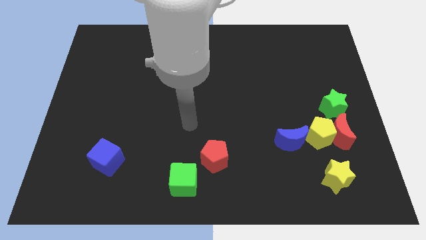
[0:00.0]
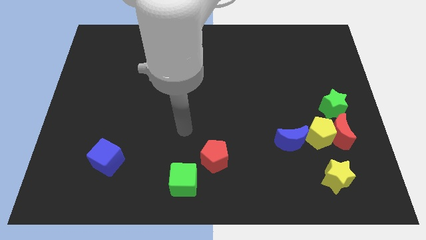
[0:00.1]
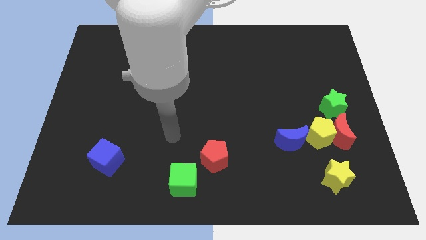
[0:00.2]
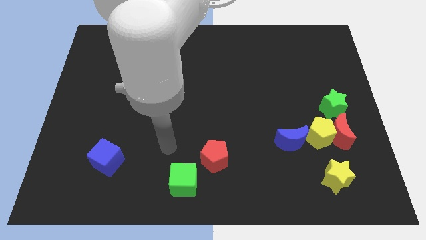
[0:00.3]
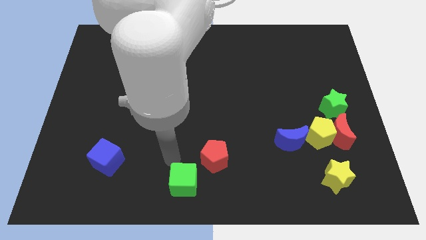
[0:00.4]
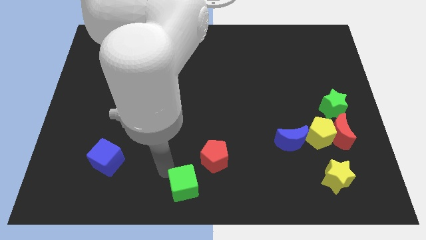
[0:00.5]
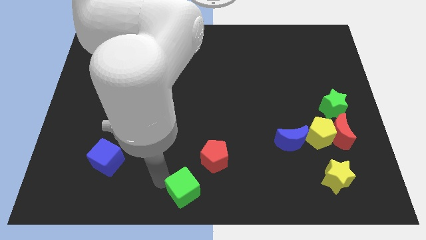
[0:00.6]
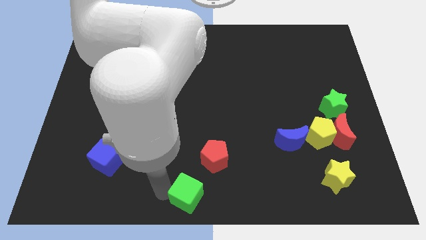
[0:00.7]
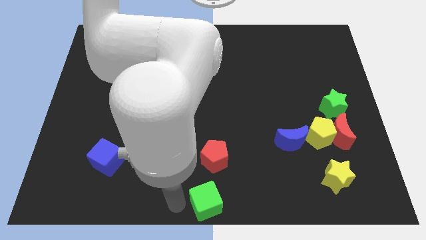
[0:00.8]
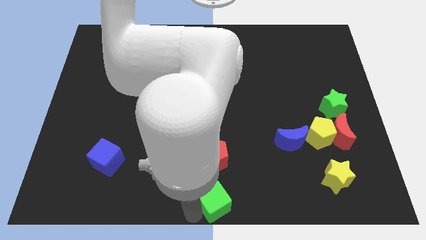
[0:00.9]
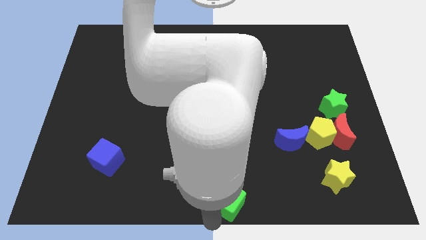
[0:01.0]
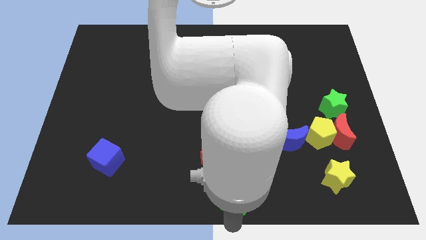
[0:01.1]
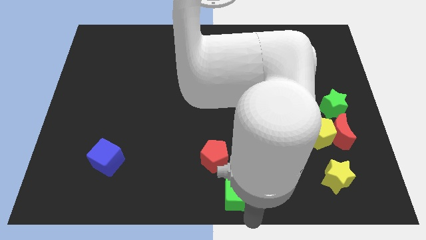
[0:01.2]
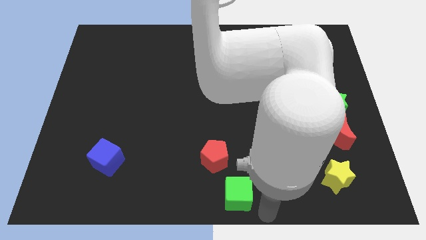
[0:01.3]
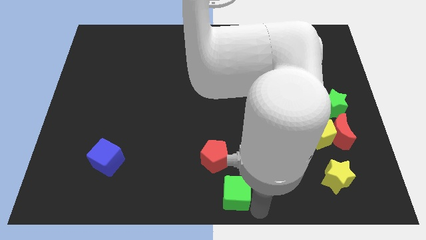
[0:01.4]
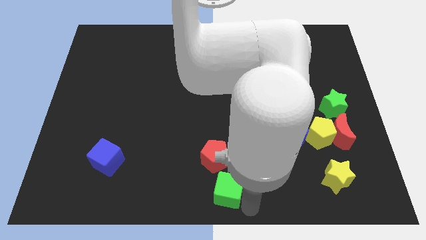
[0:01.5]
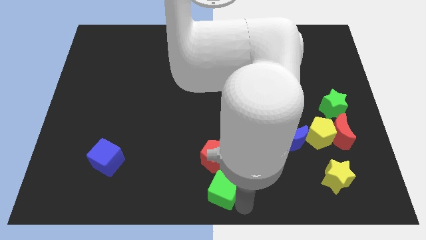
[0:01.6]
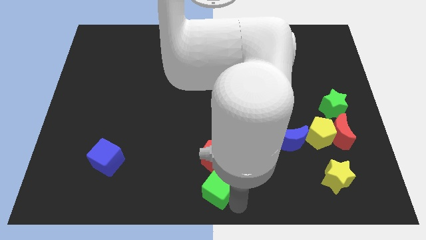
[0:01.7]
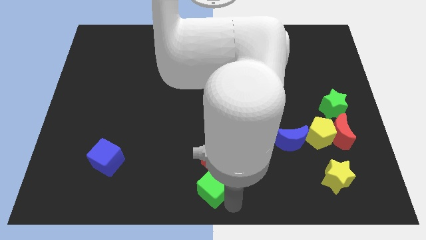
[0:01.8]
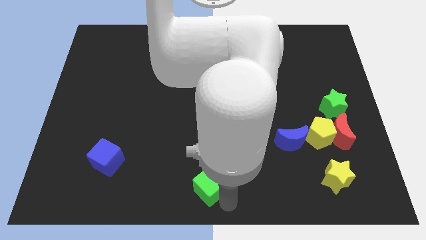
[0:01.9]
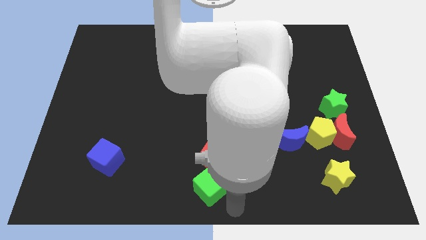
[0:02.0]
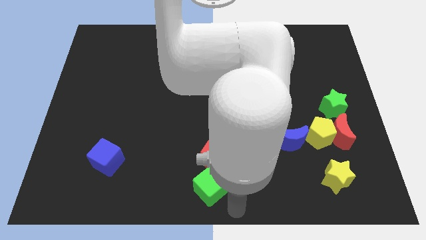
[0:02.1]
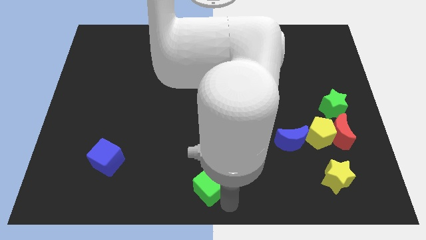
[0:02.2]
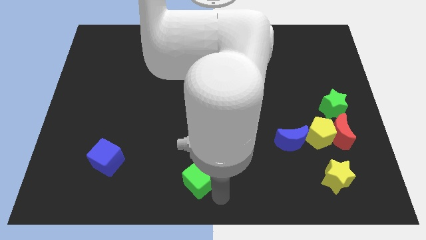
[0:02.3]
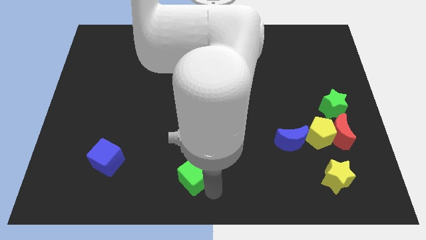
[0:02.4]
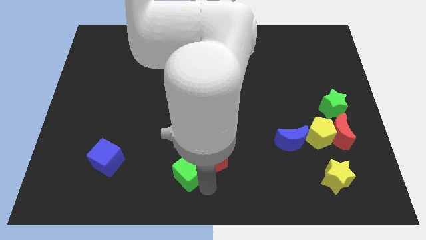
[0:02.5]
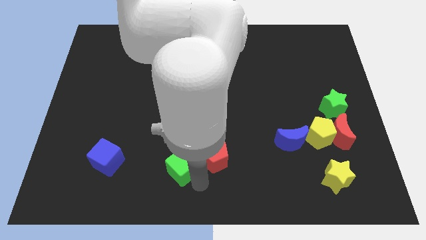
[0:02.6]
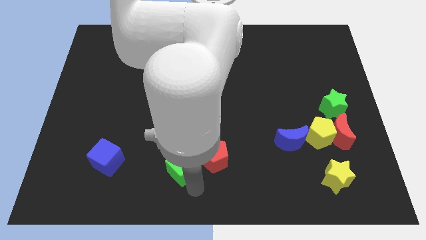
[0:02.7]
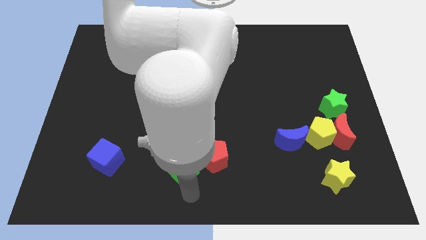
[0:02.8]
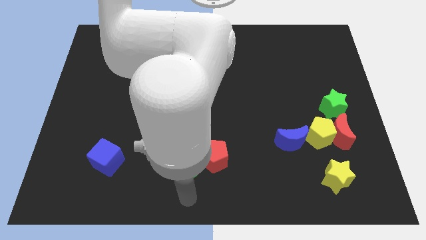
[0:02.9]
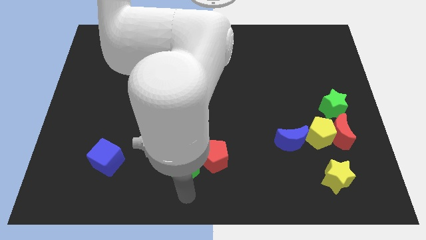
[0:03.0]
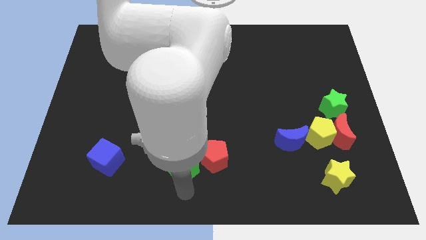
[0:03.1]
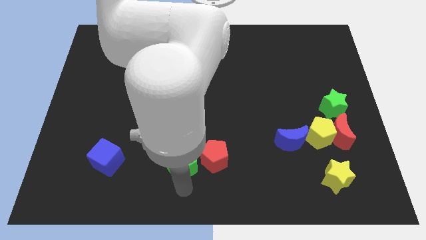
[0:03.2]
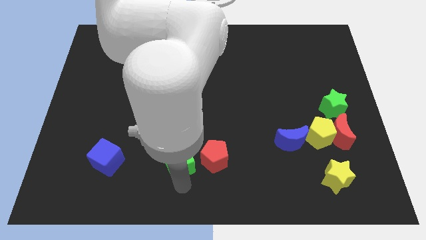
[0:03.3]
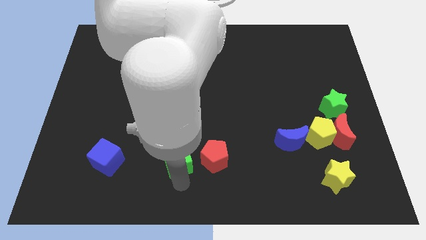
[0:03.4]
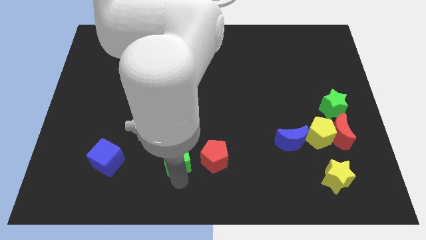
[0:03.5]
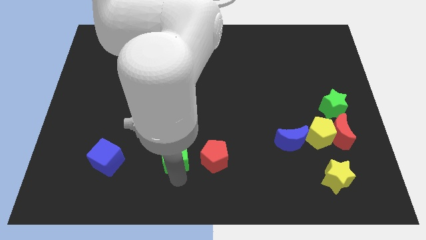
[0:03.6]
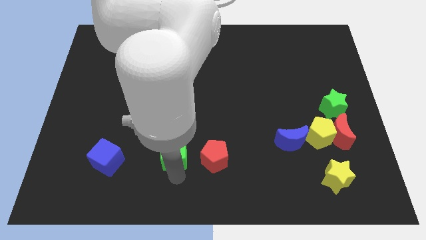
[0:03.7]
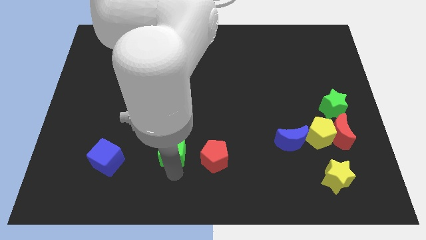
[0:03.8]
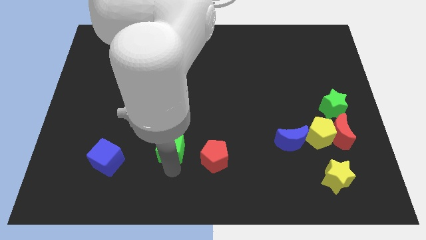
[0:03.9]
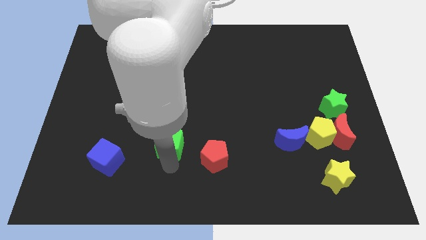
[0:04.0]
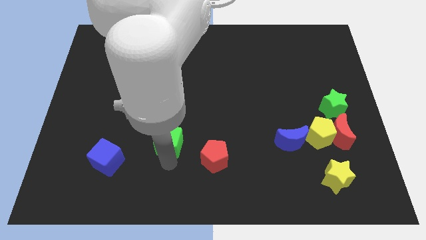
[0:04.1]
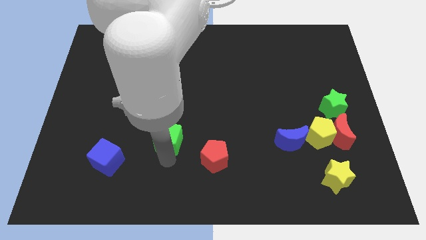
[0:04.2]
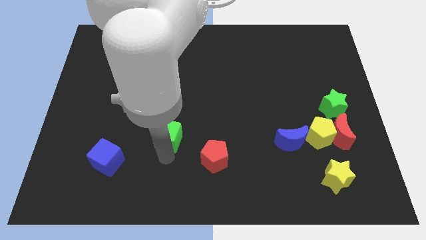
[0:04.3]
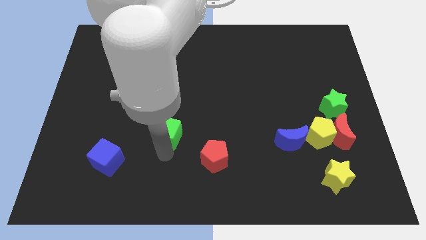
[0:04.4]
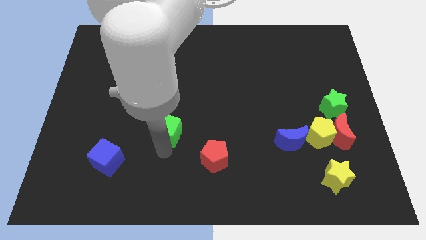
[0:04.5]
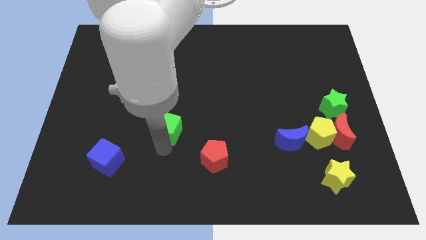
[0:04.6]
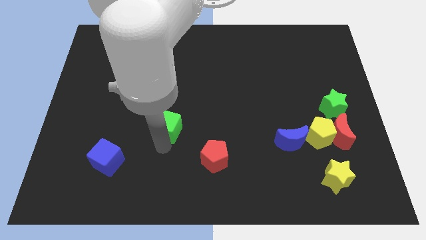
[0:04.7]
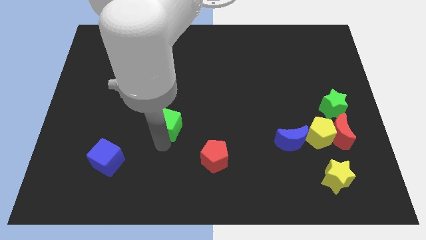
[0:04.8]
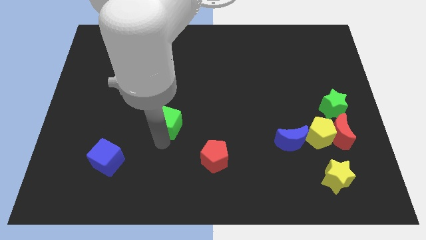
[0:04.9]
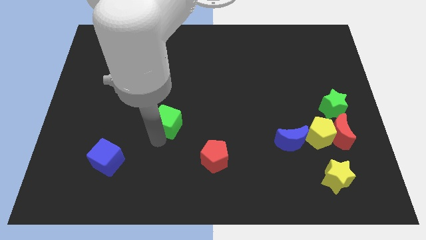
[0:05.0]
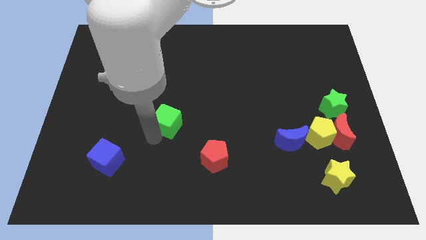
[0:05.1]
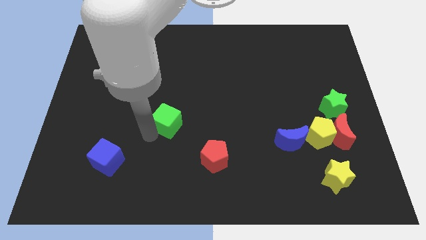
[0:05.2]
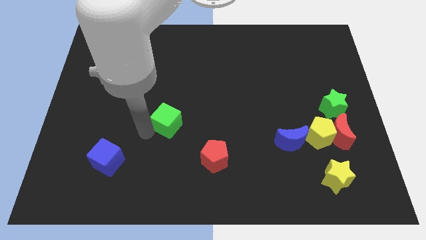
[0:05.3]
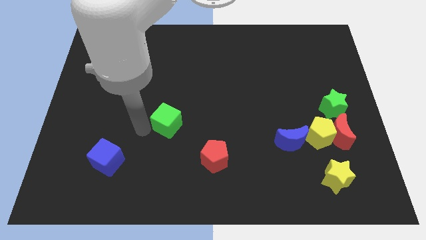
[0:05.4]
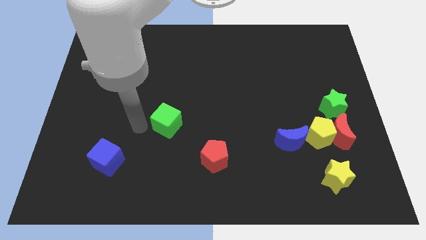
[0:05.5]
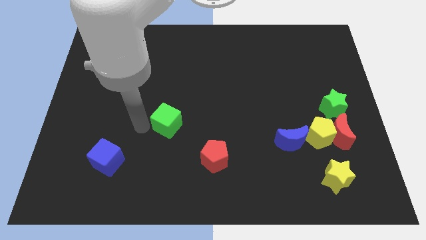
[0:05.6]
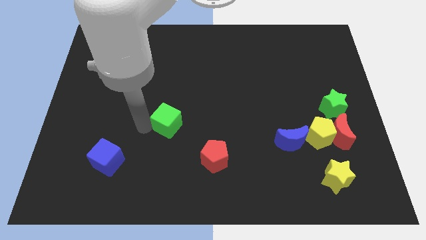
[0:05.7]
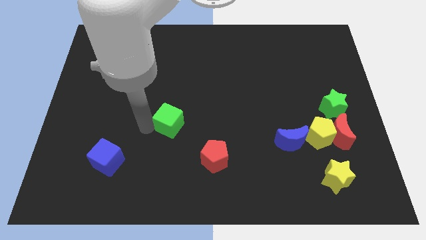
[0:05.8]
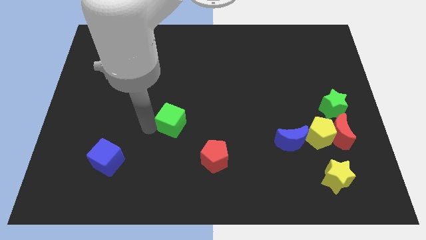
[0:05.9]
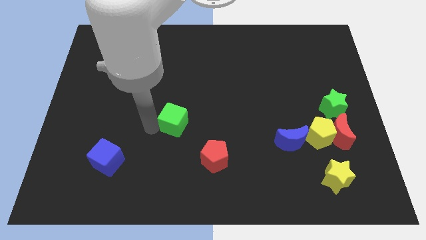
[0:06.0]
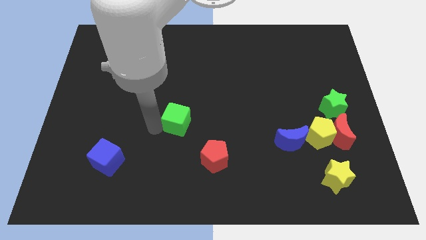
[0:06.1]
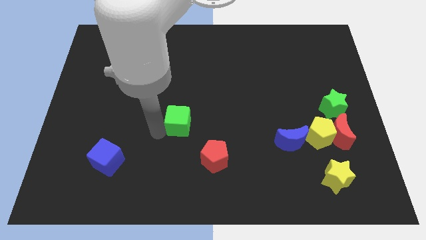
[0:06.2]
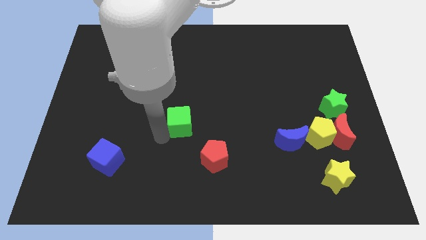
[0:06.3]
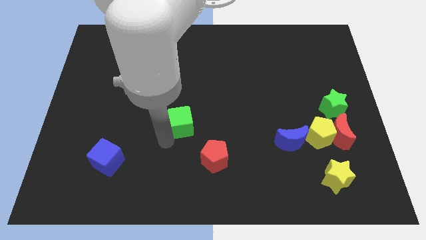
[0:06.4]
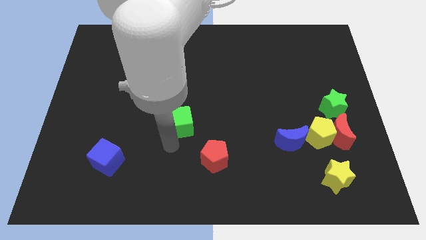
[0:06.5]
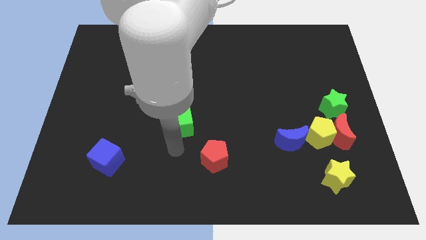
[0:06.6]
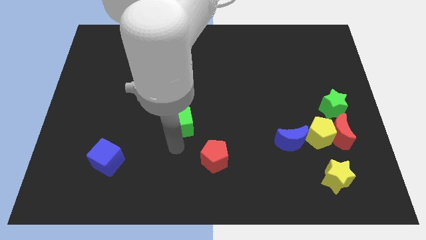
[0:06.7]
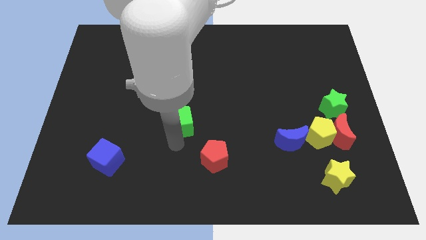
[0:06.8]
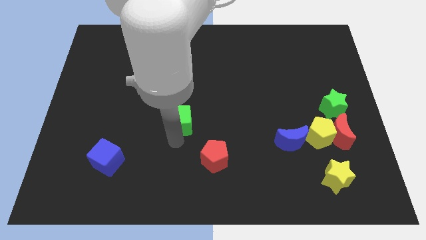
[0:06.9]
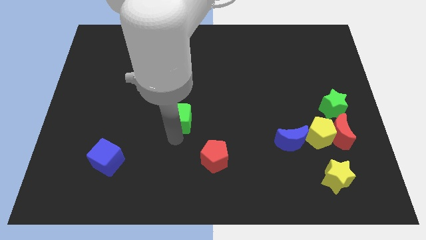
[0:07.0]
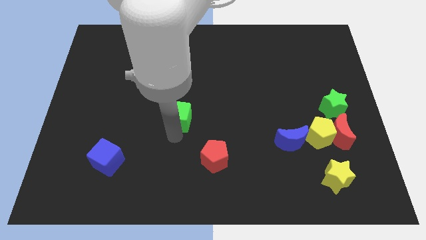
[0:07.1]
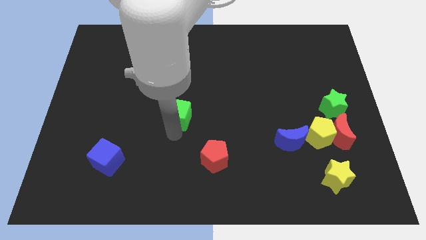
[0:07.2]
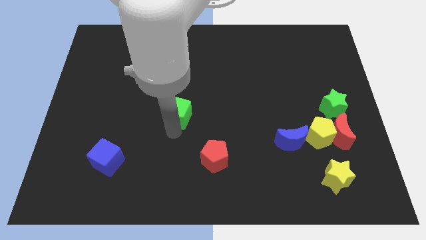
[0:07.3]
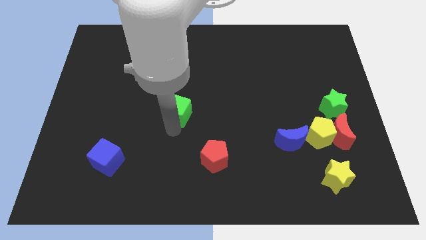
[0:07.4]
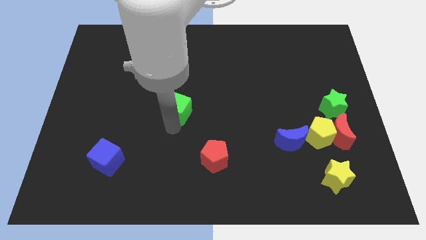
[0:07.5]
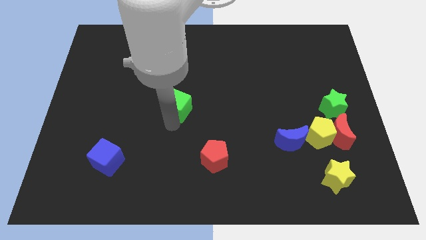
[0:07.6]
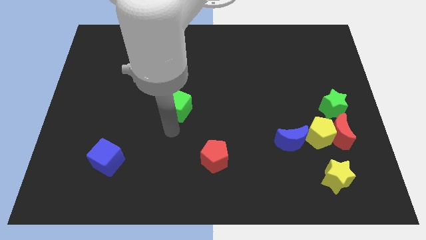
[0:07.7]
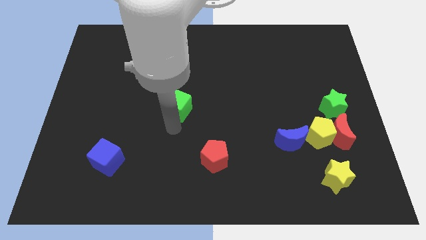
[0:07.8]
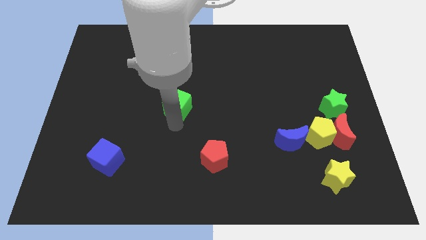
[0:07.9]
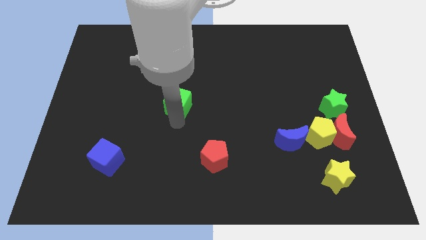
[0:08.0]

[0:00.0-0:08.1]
push the green cube up
